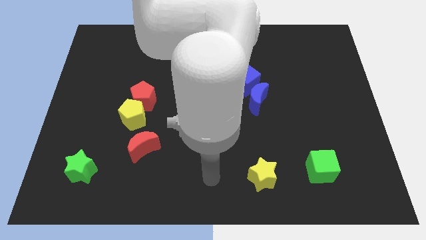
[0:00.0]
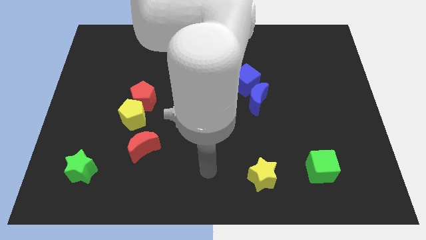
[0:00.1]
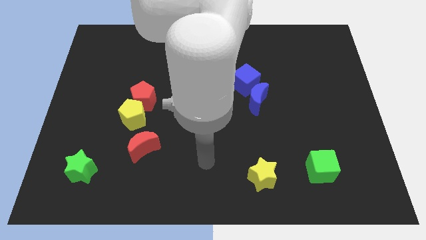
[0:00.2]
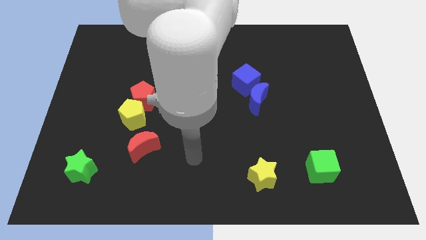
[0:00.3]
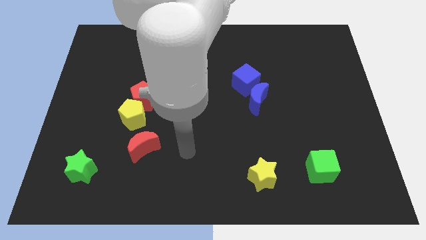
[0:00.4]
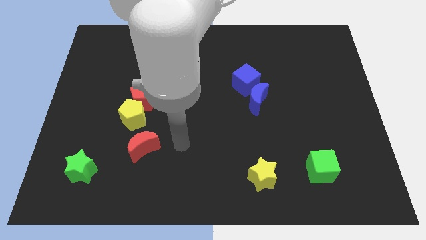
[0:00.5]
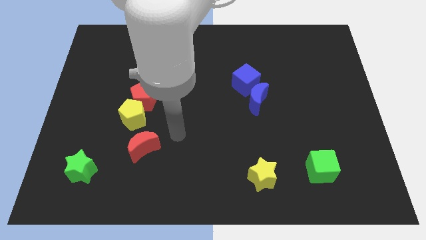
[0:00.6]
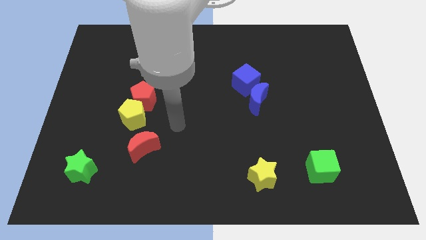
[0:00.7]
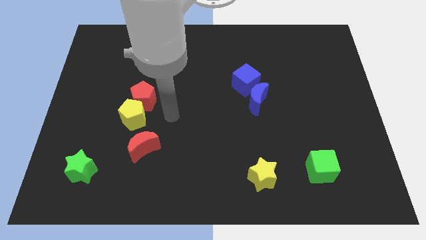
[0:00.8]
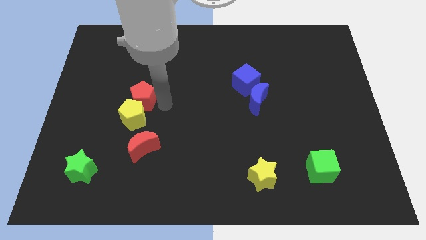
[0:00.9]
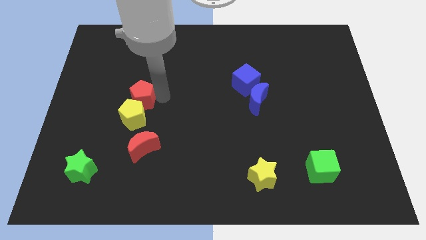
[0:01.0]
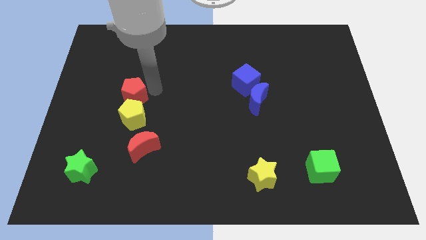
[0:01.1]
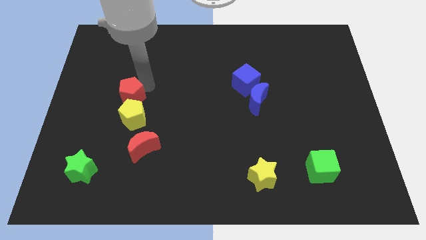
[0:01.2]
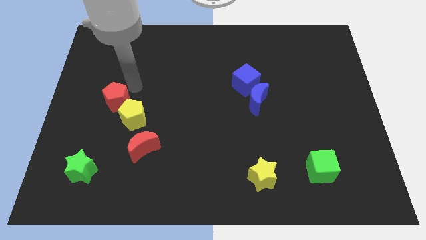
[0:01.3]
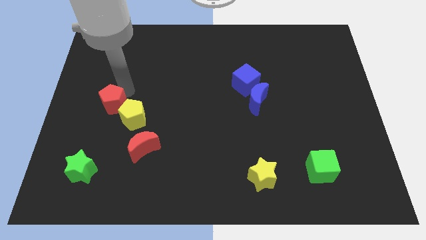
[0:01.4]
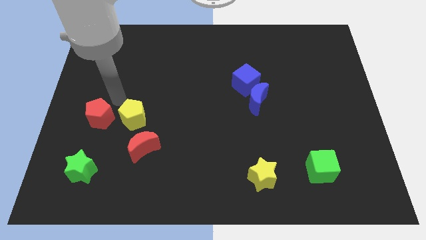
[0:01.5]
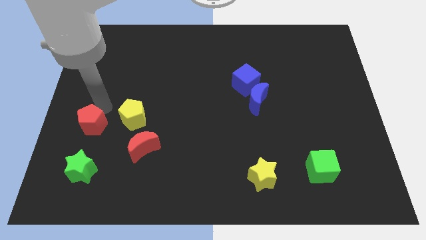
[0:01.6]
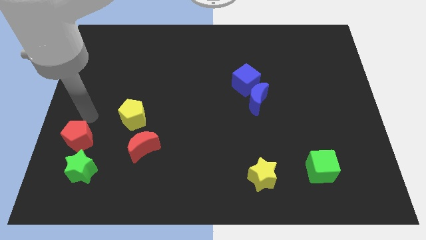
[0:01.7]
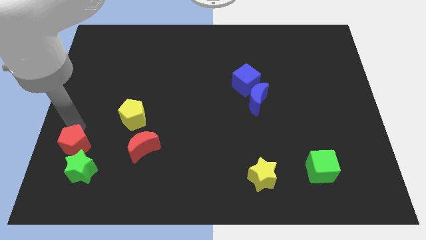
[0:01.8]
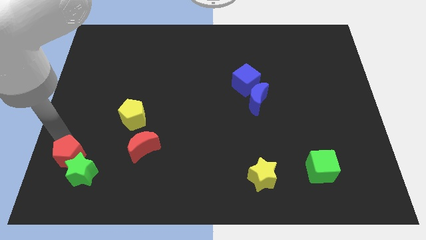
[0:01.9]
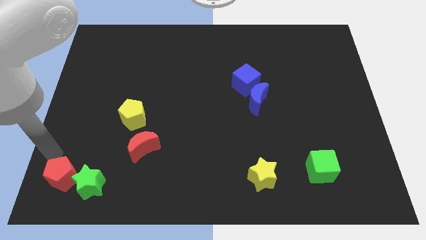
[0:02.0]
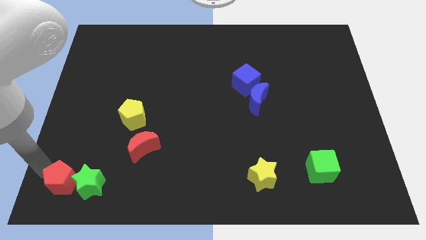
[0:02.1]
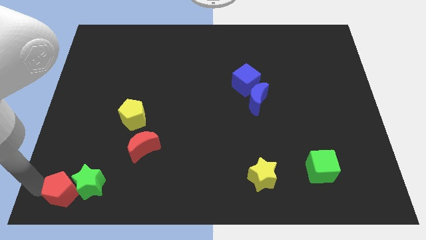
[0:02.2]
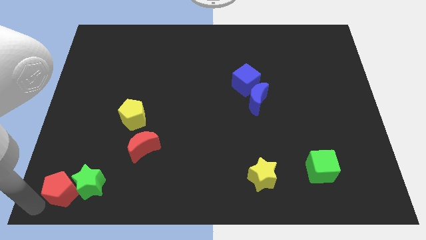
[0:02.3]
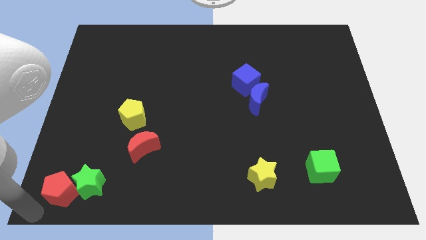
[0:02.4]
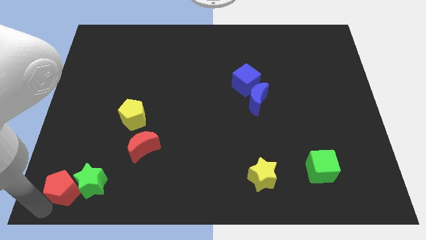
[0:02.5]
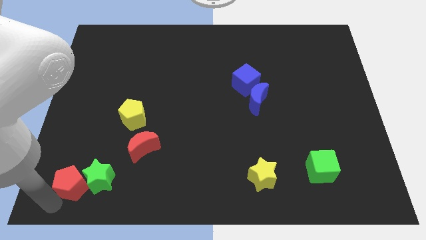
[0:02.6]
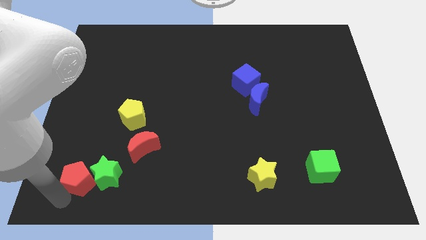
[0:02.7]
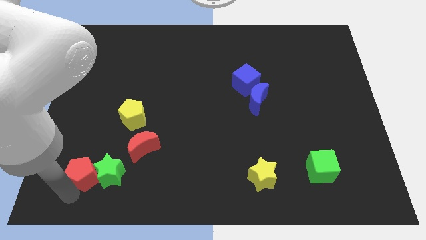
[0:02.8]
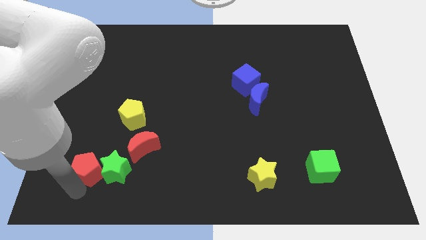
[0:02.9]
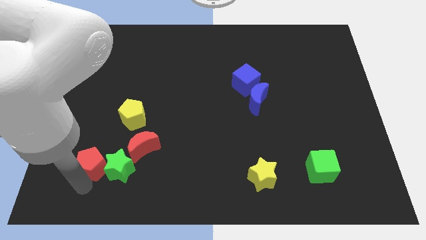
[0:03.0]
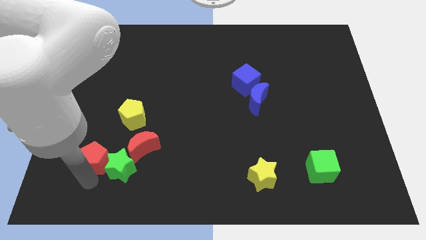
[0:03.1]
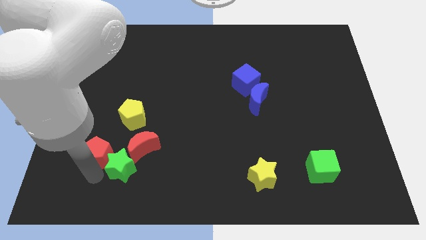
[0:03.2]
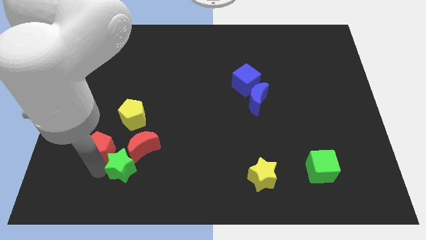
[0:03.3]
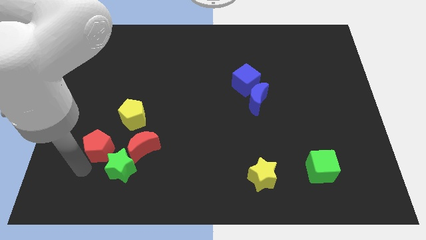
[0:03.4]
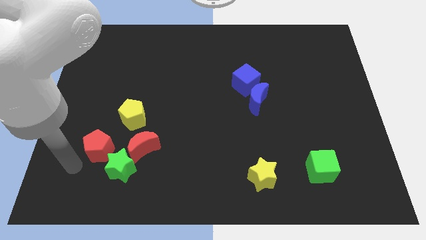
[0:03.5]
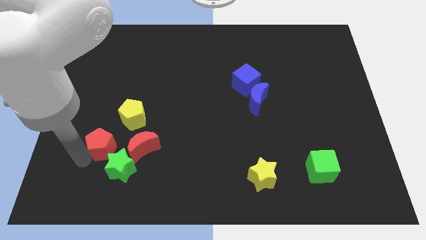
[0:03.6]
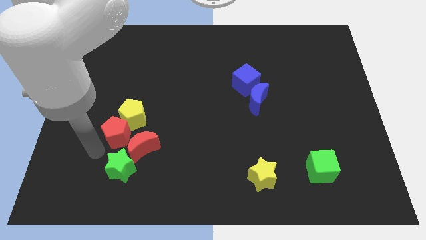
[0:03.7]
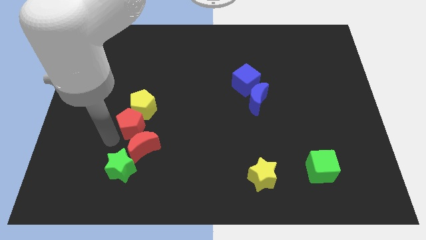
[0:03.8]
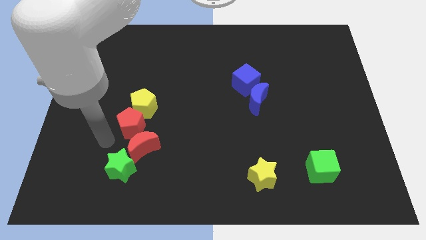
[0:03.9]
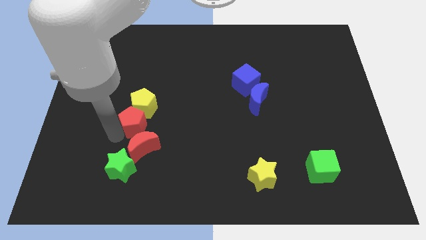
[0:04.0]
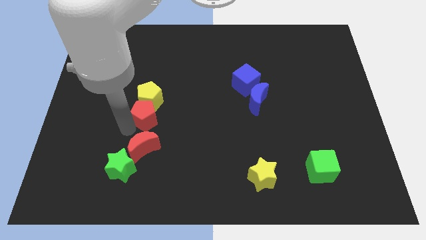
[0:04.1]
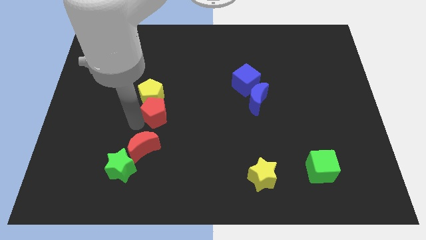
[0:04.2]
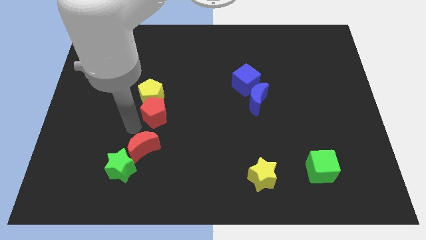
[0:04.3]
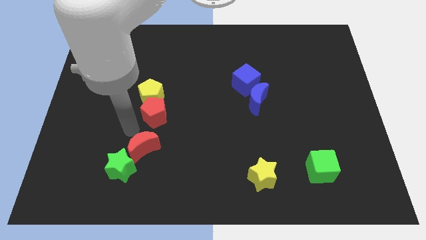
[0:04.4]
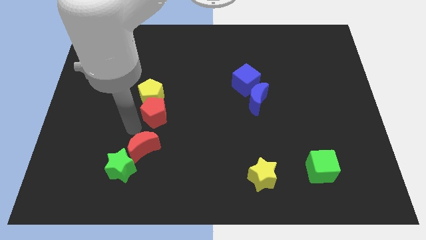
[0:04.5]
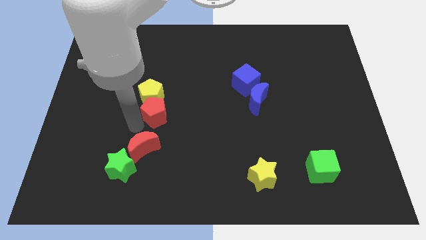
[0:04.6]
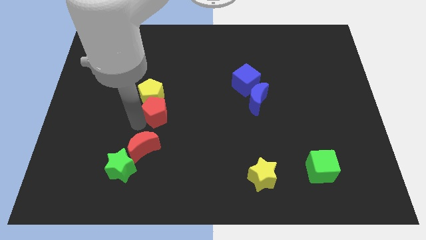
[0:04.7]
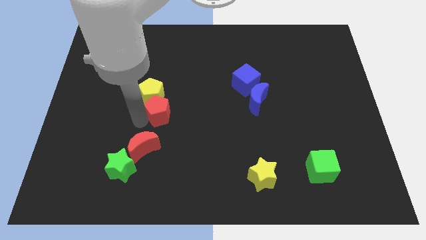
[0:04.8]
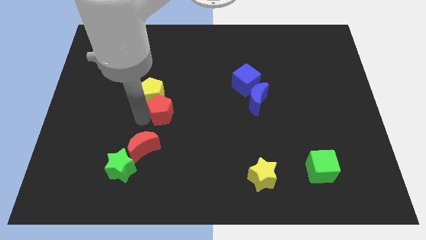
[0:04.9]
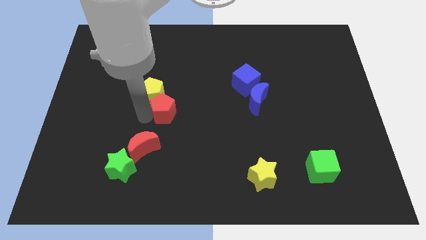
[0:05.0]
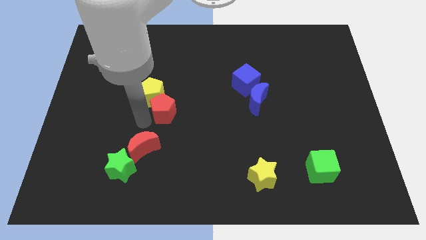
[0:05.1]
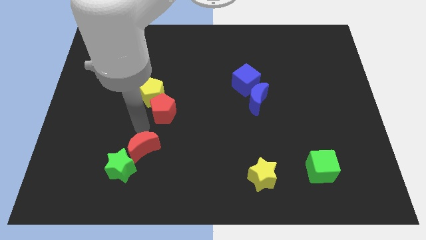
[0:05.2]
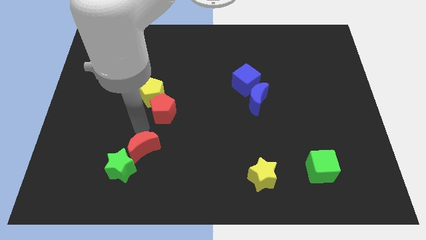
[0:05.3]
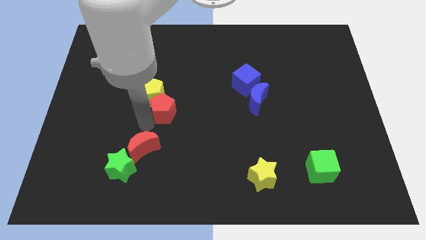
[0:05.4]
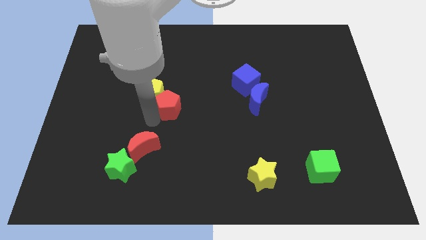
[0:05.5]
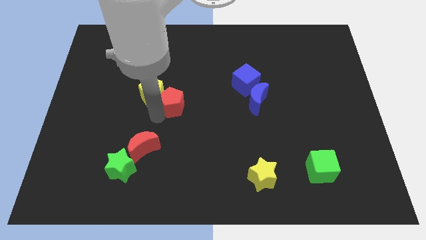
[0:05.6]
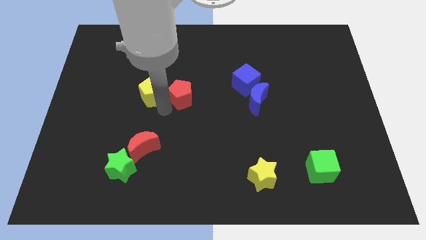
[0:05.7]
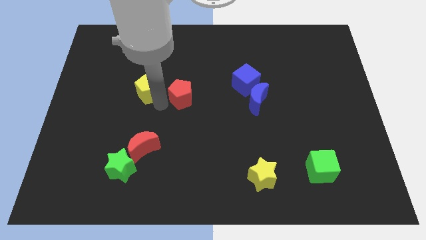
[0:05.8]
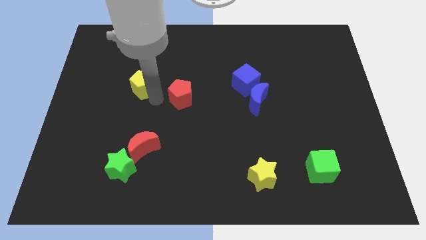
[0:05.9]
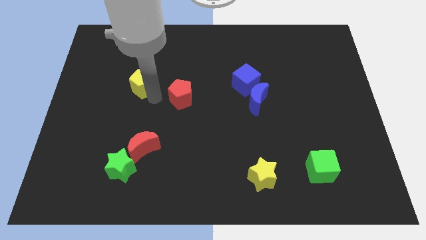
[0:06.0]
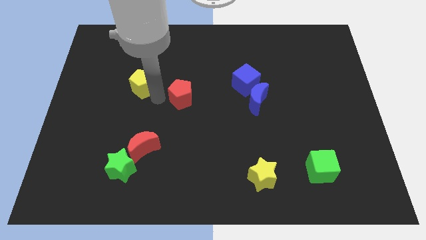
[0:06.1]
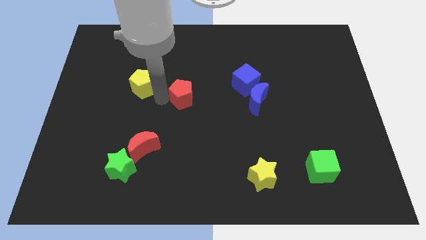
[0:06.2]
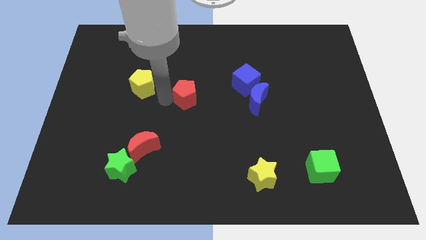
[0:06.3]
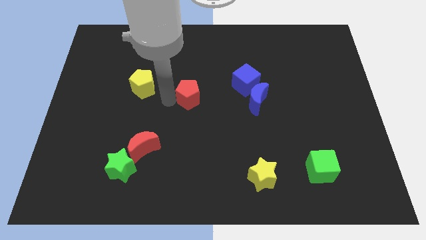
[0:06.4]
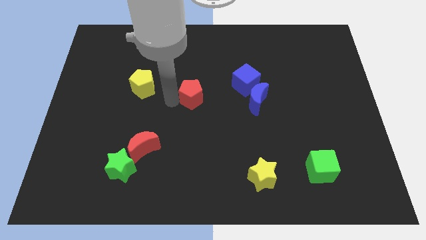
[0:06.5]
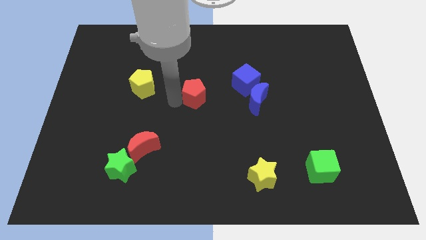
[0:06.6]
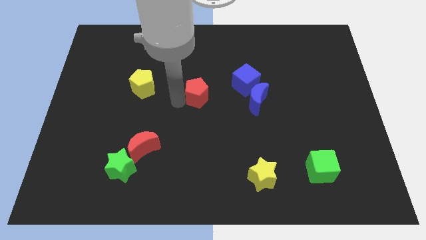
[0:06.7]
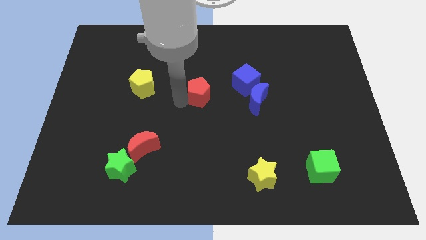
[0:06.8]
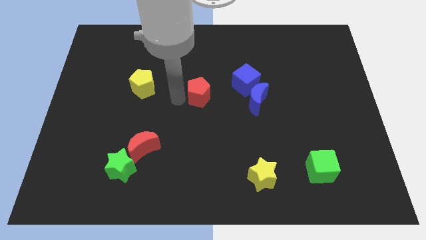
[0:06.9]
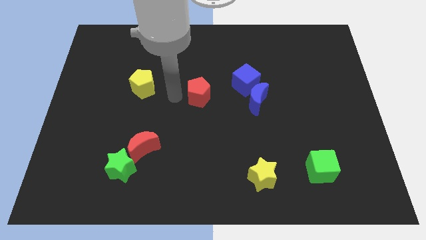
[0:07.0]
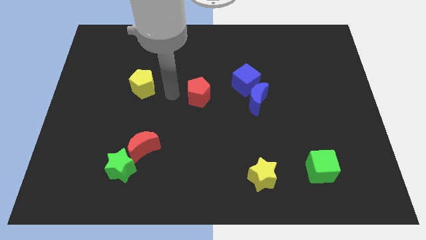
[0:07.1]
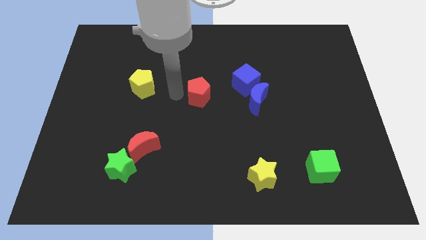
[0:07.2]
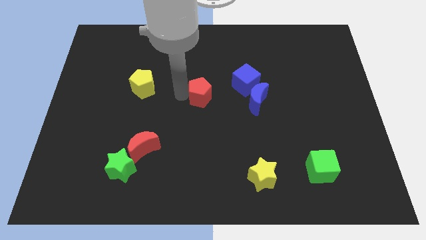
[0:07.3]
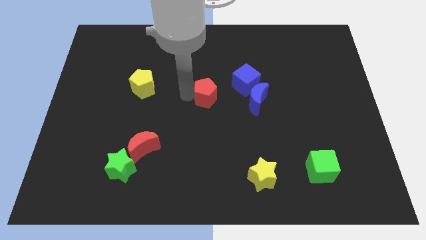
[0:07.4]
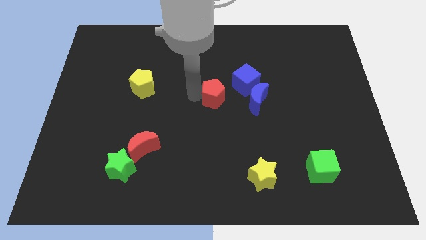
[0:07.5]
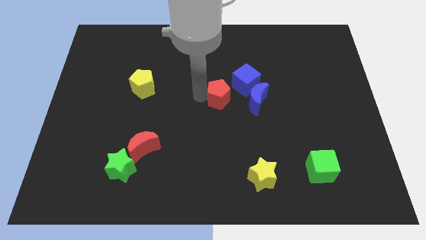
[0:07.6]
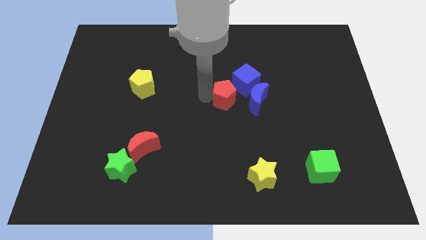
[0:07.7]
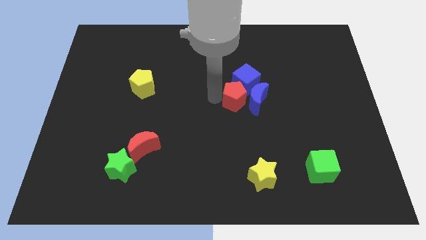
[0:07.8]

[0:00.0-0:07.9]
put the red pentagon next to the blue moon
